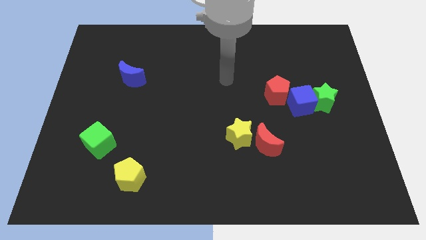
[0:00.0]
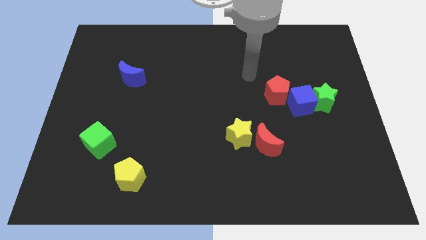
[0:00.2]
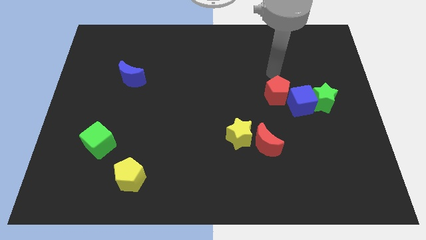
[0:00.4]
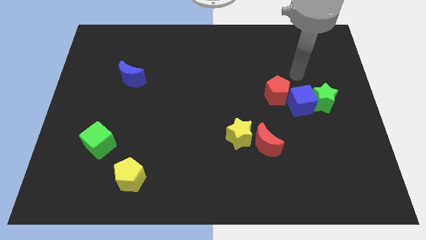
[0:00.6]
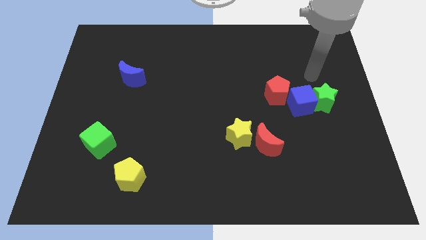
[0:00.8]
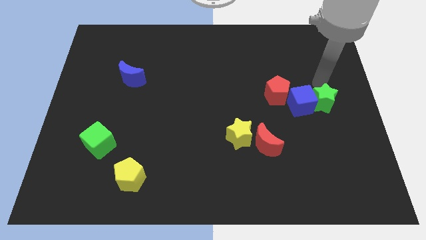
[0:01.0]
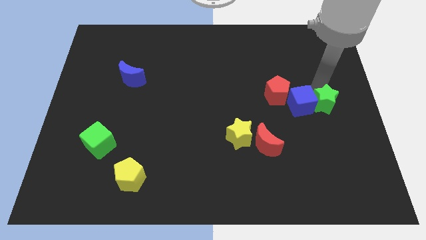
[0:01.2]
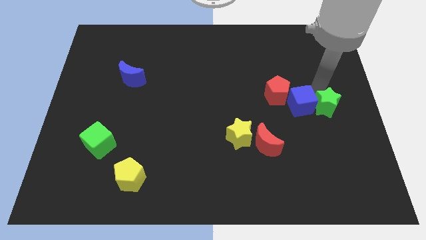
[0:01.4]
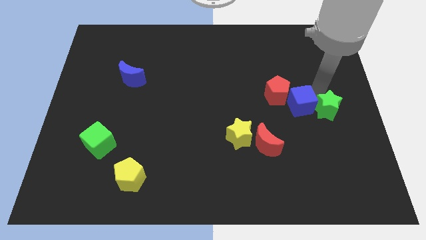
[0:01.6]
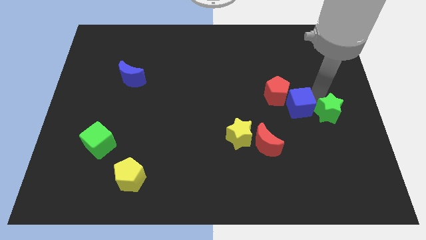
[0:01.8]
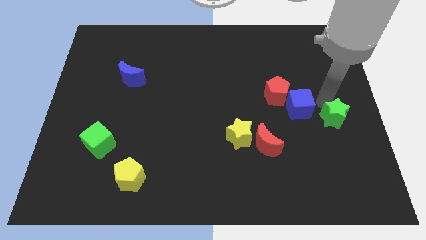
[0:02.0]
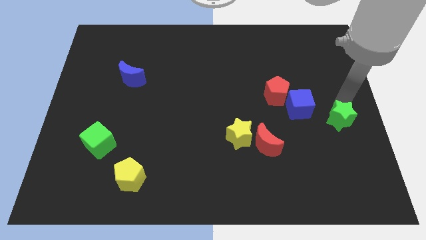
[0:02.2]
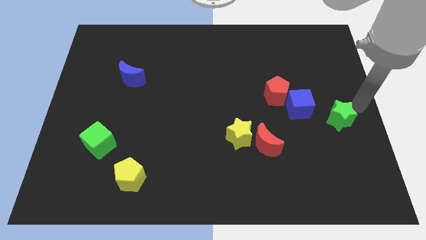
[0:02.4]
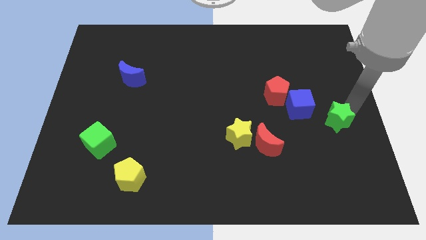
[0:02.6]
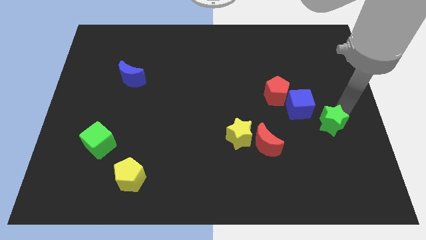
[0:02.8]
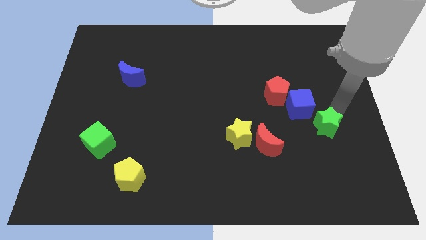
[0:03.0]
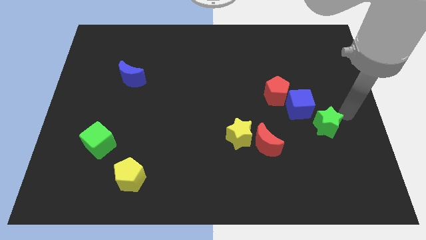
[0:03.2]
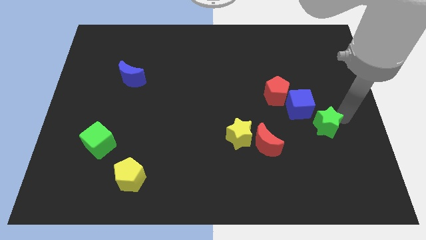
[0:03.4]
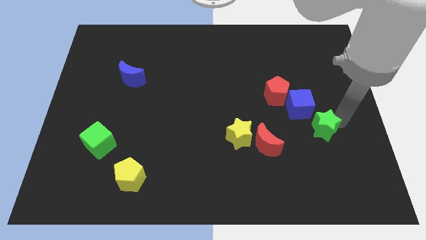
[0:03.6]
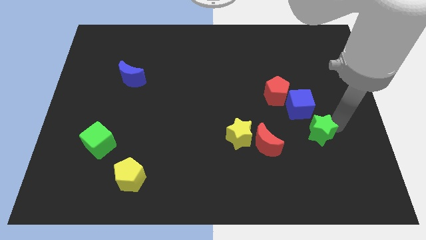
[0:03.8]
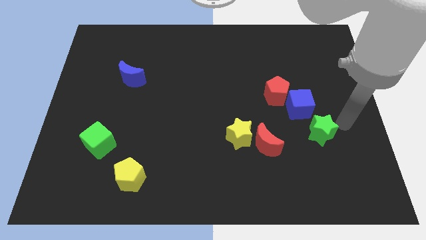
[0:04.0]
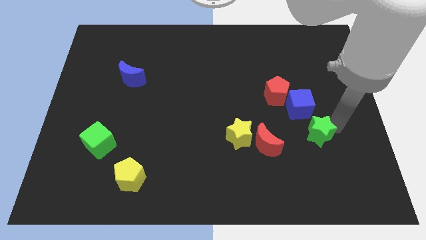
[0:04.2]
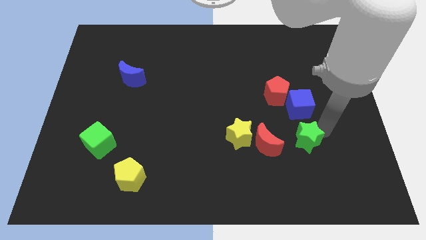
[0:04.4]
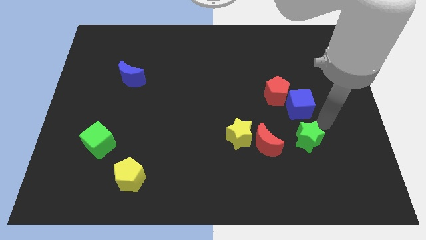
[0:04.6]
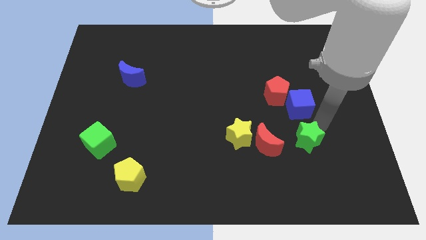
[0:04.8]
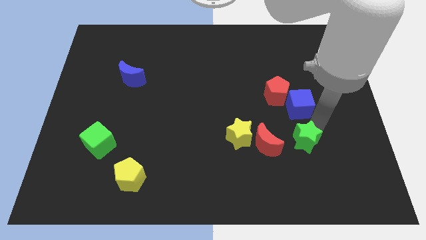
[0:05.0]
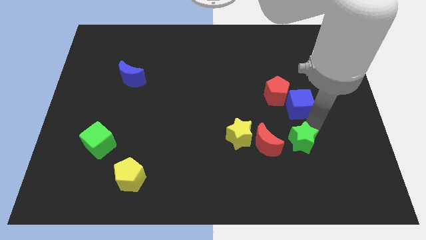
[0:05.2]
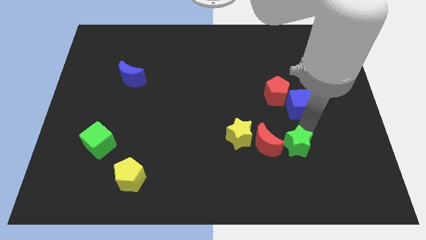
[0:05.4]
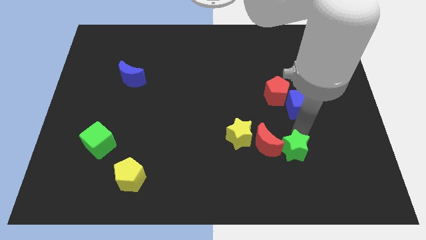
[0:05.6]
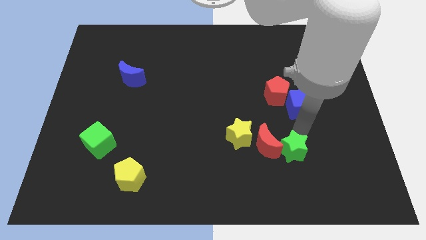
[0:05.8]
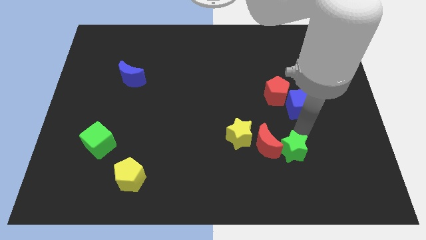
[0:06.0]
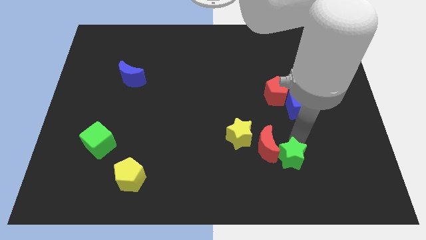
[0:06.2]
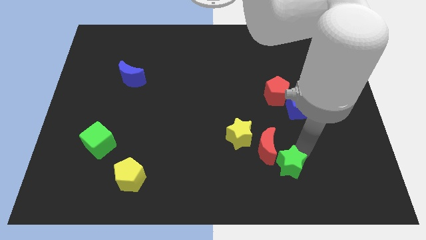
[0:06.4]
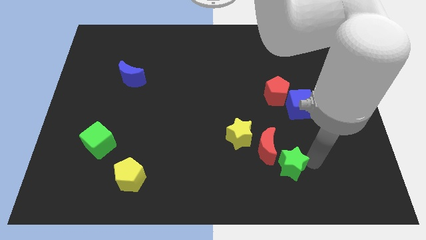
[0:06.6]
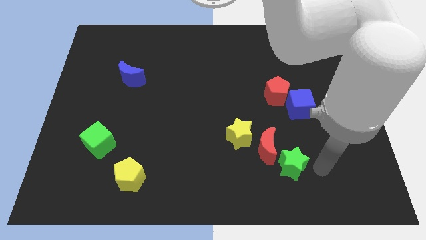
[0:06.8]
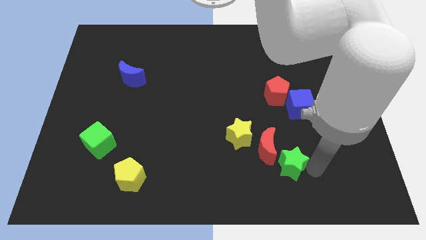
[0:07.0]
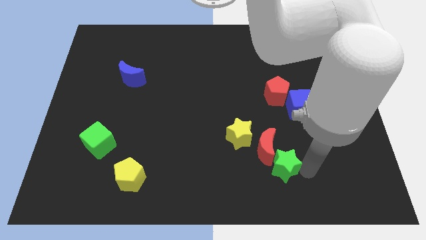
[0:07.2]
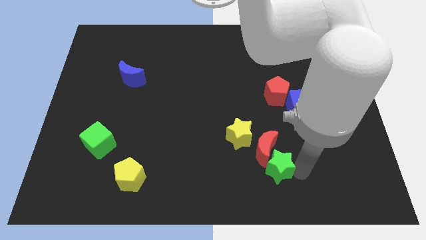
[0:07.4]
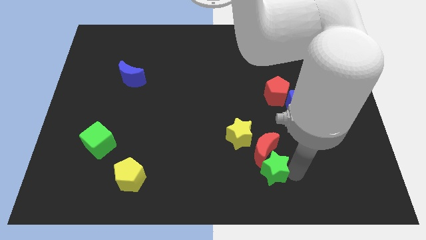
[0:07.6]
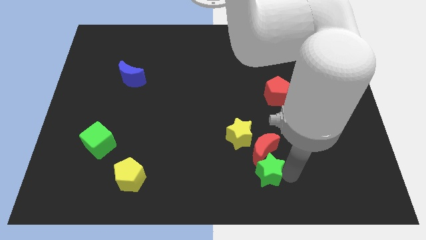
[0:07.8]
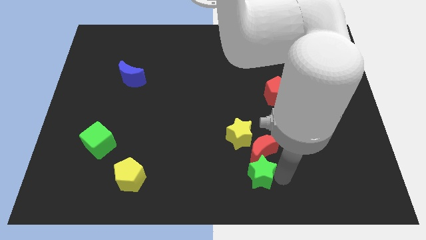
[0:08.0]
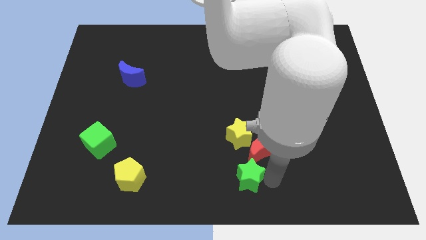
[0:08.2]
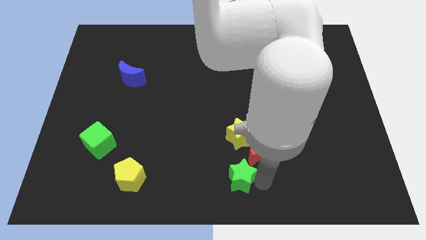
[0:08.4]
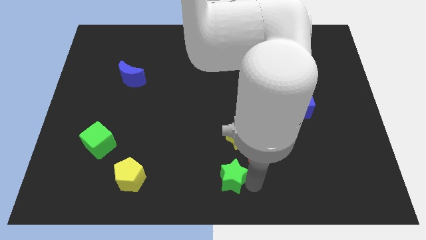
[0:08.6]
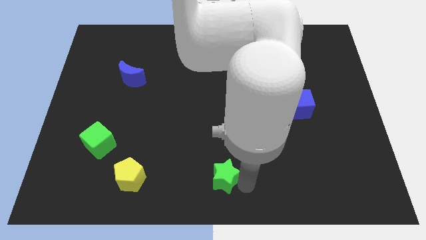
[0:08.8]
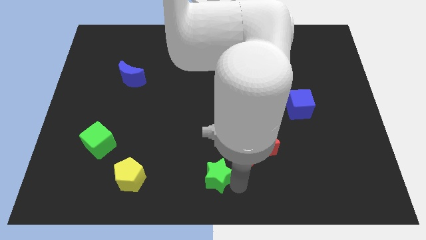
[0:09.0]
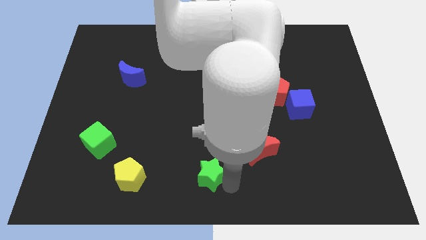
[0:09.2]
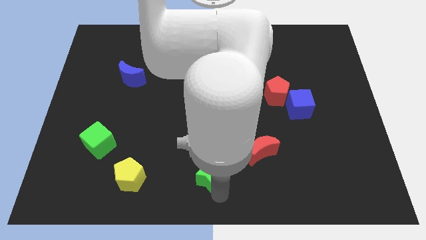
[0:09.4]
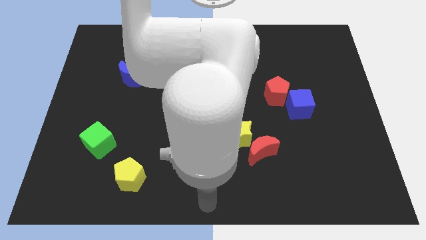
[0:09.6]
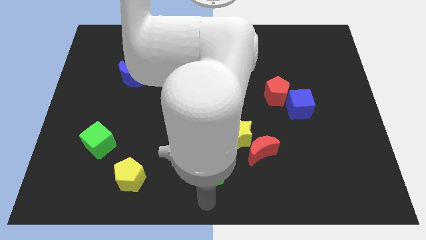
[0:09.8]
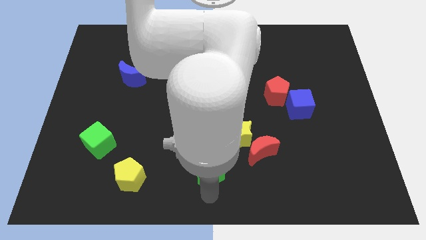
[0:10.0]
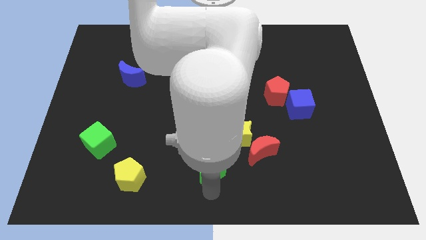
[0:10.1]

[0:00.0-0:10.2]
slide the green star to the left of the red moon

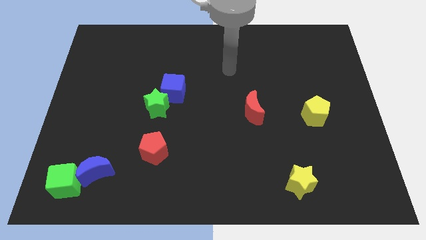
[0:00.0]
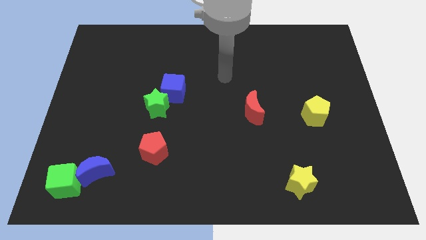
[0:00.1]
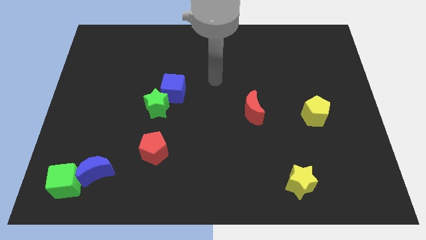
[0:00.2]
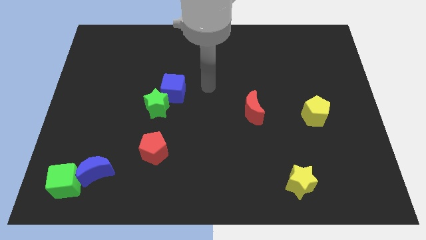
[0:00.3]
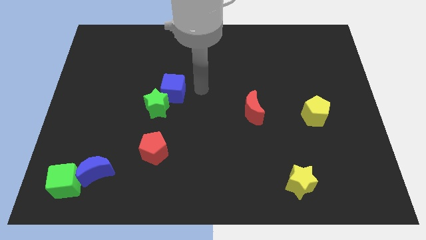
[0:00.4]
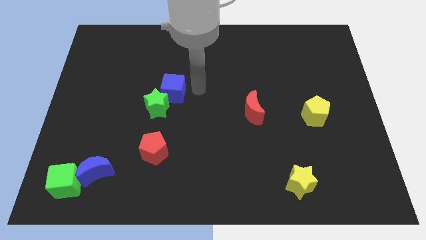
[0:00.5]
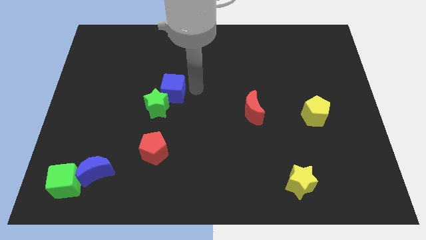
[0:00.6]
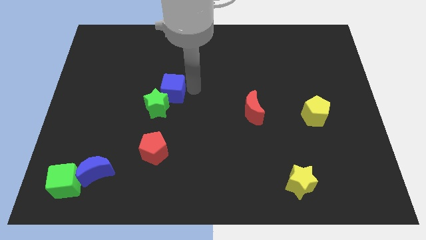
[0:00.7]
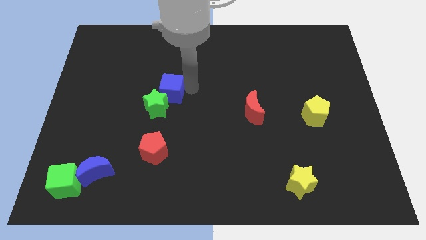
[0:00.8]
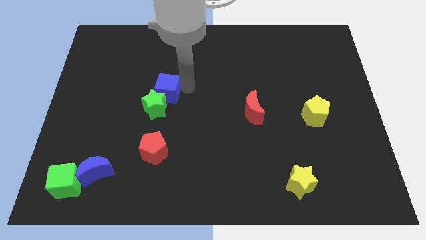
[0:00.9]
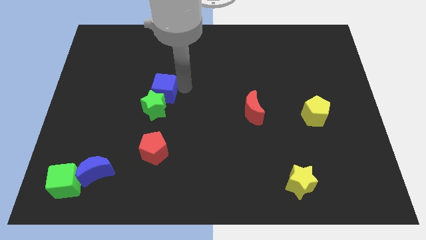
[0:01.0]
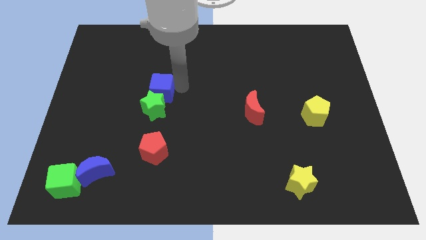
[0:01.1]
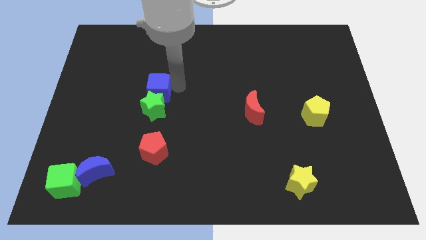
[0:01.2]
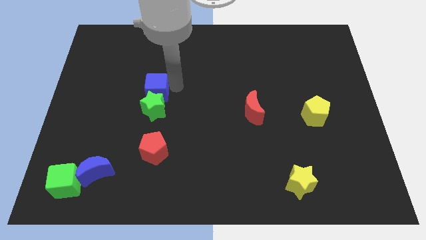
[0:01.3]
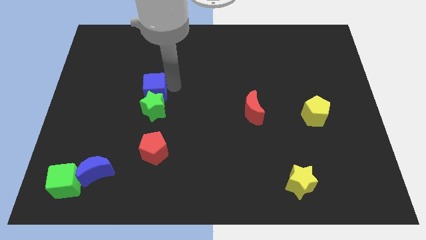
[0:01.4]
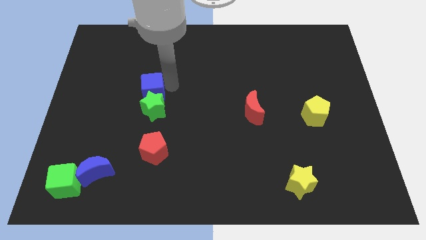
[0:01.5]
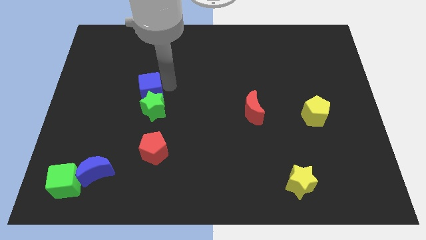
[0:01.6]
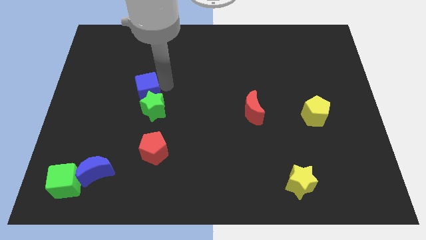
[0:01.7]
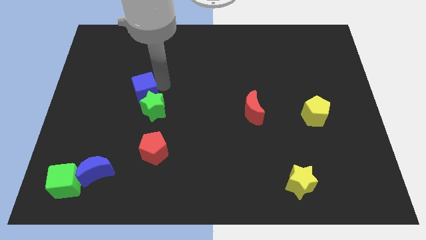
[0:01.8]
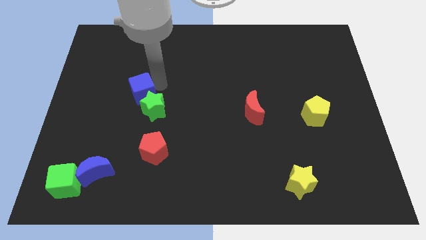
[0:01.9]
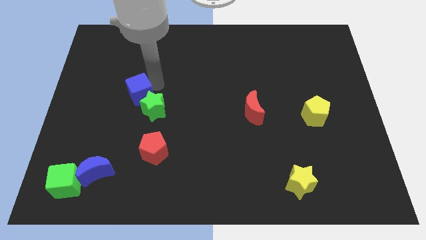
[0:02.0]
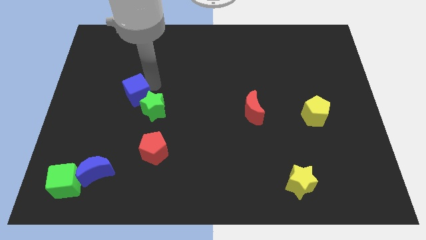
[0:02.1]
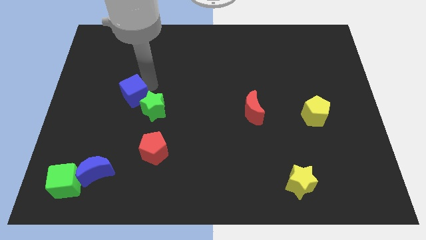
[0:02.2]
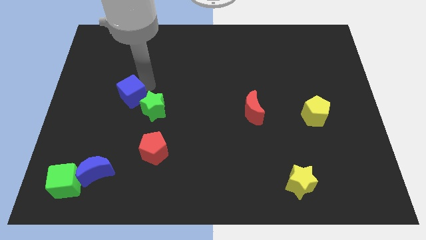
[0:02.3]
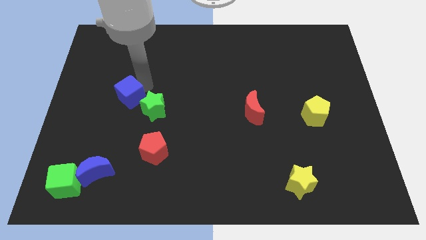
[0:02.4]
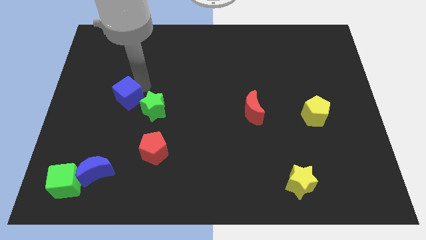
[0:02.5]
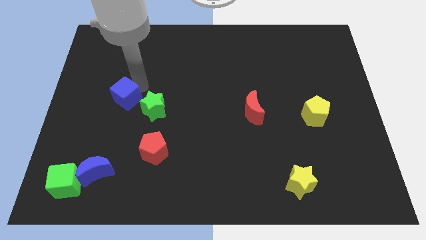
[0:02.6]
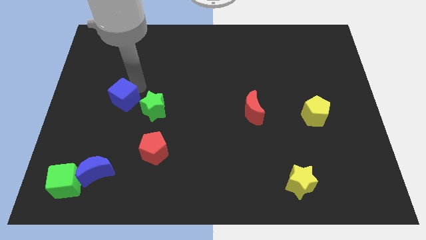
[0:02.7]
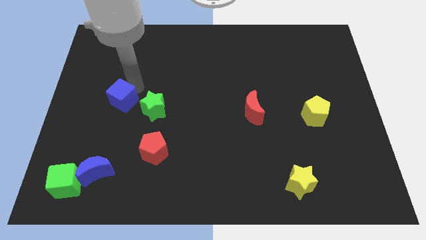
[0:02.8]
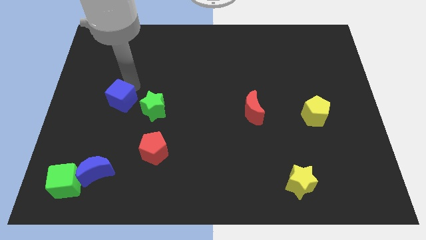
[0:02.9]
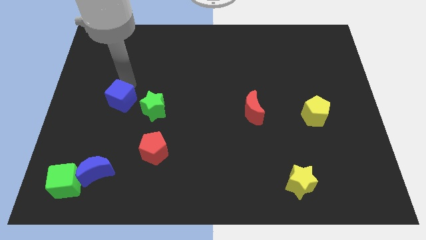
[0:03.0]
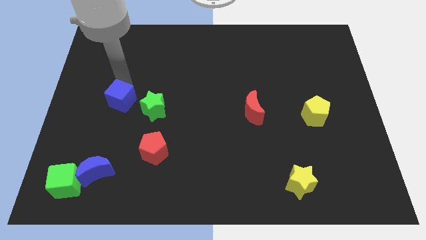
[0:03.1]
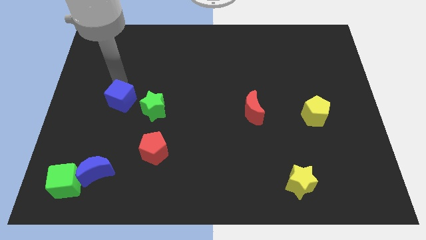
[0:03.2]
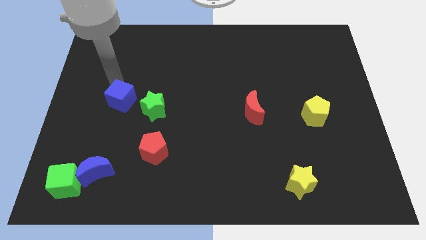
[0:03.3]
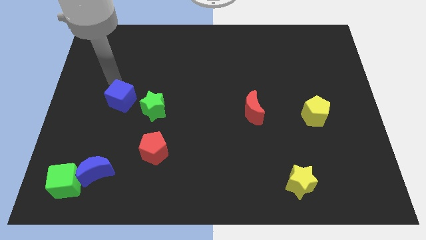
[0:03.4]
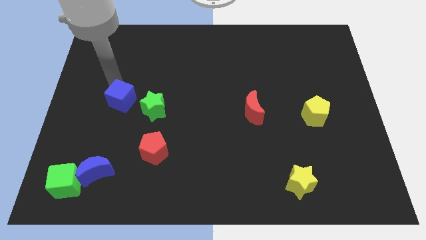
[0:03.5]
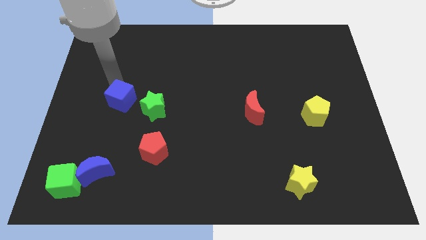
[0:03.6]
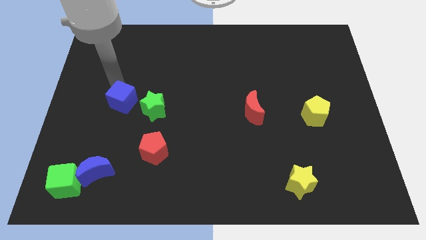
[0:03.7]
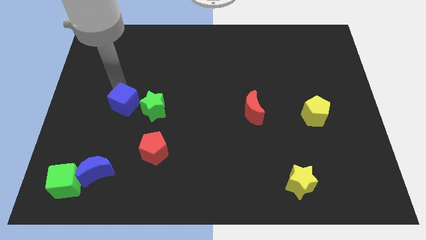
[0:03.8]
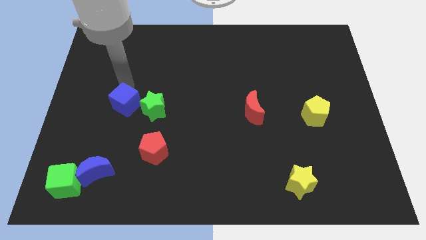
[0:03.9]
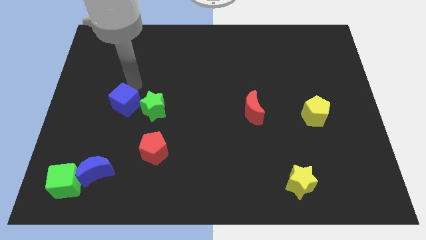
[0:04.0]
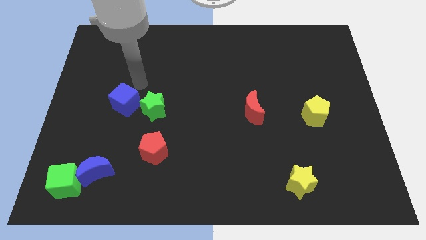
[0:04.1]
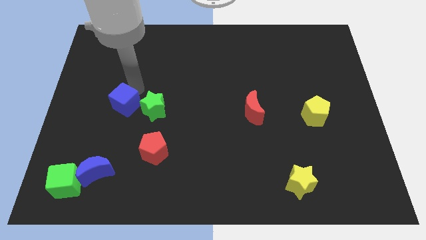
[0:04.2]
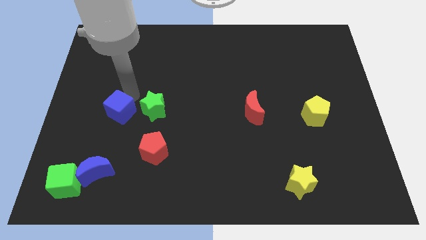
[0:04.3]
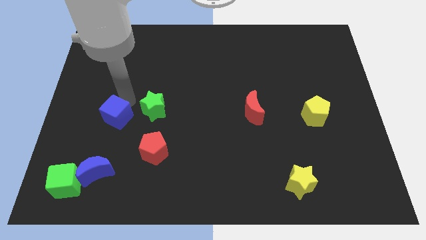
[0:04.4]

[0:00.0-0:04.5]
move the blue cube to the top of the blue moon
